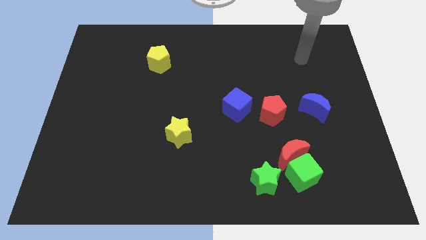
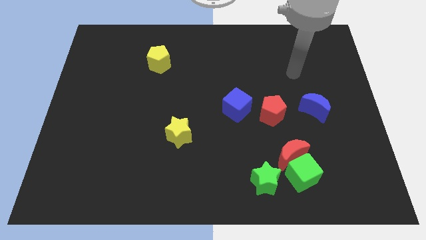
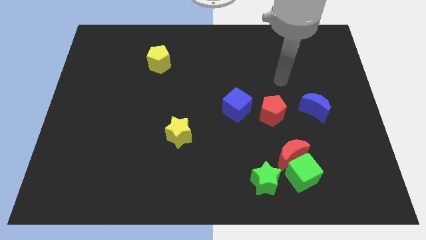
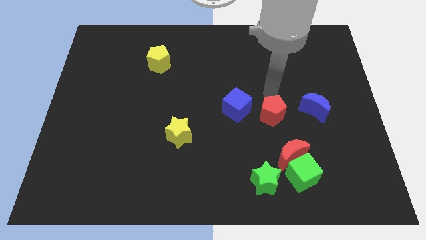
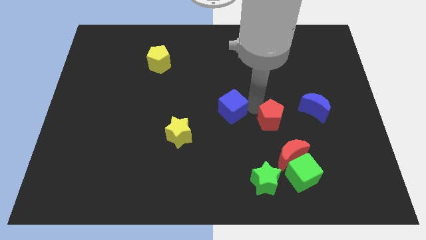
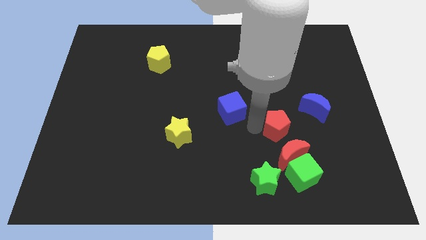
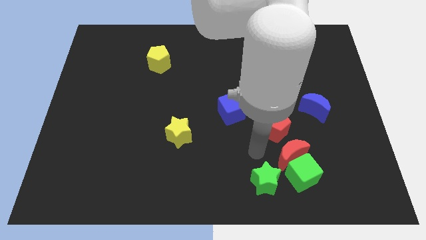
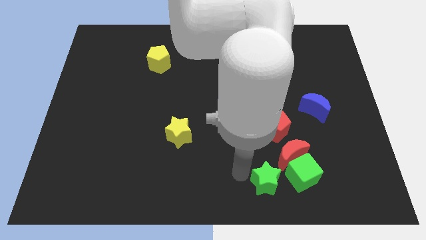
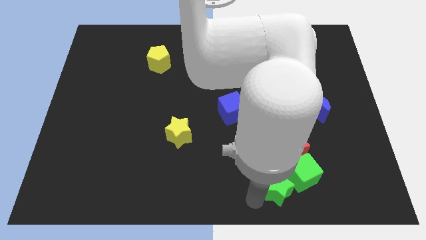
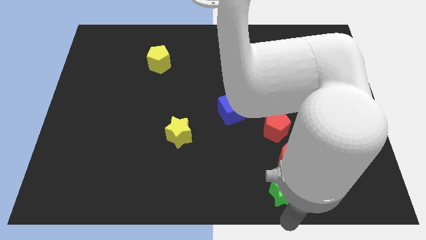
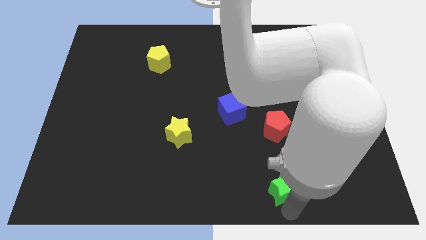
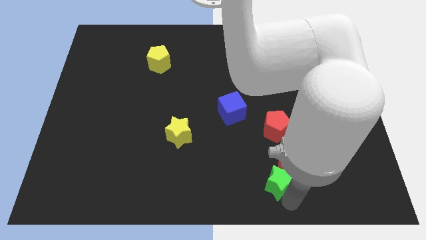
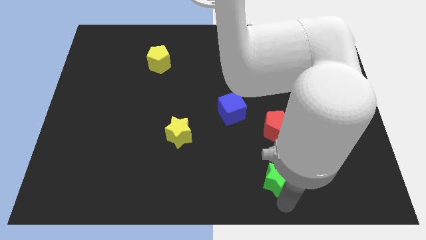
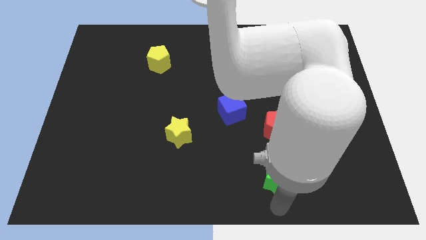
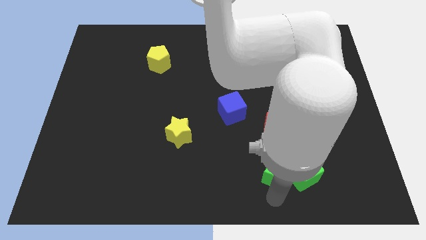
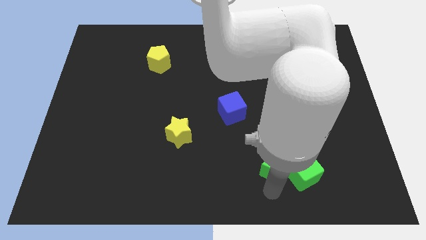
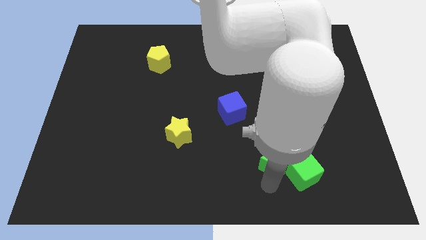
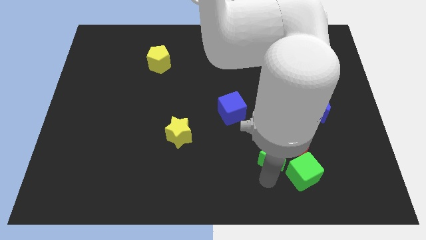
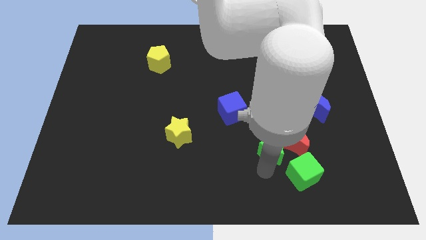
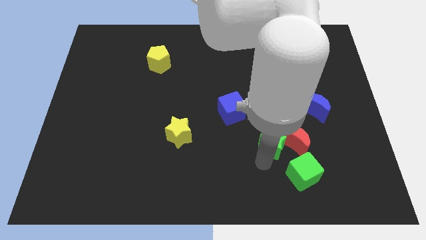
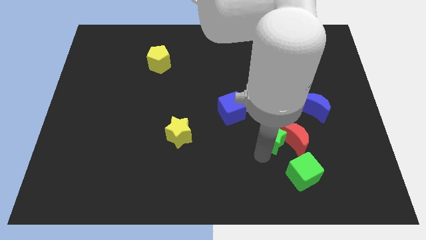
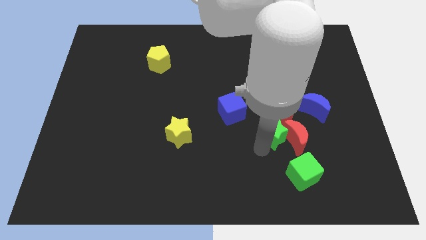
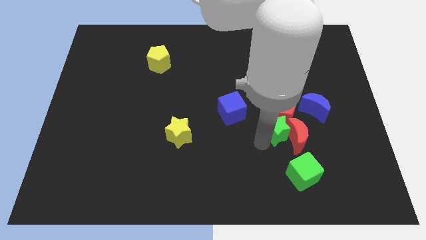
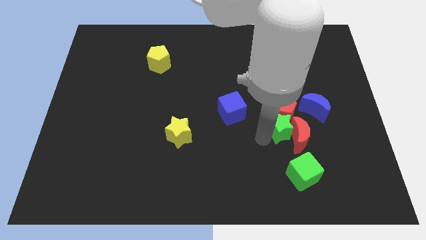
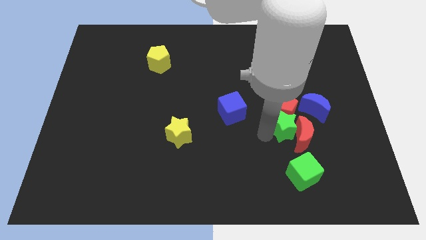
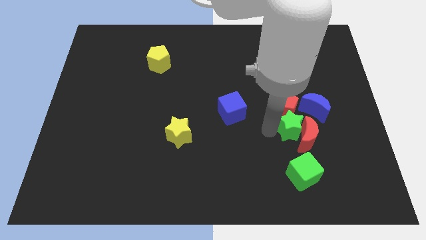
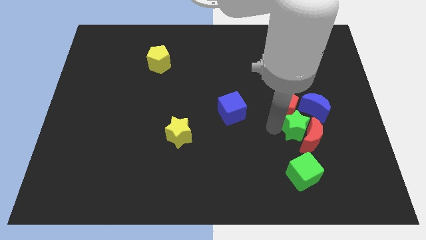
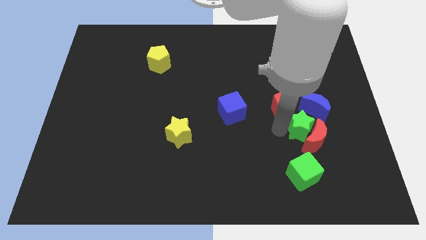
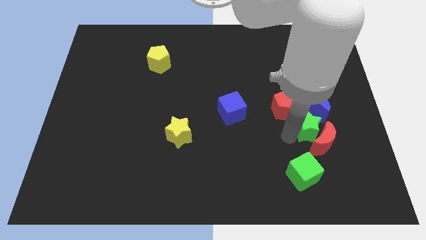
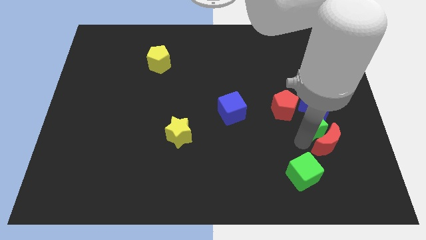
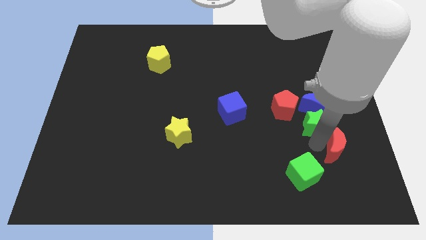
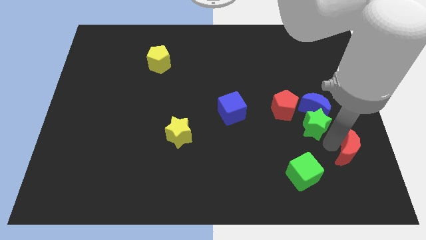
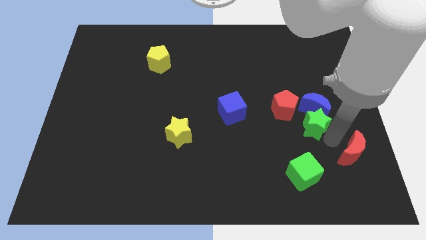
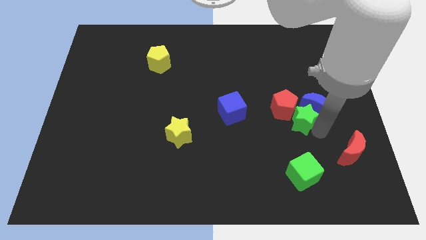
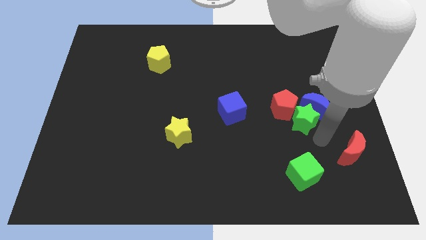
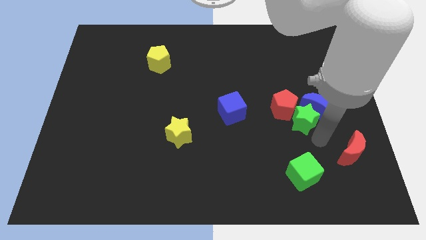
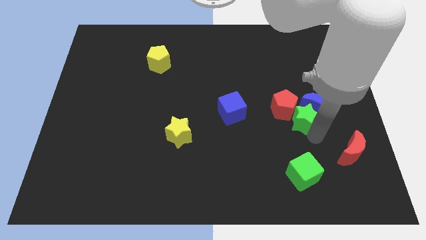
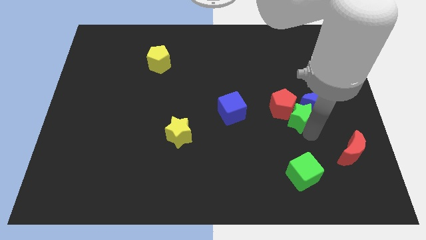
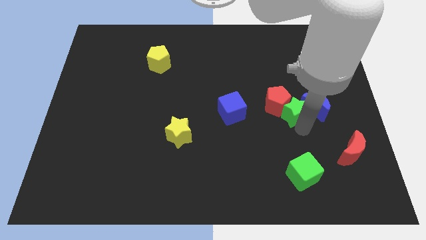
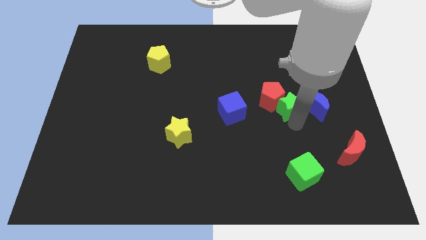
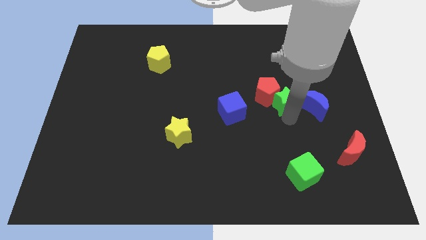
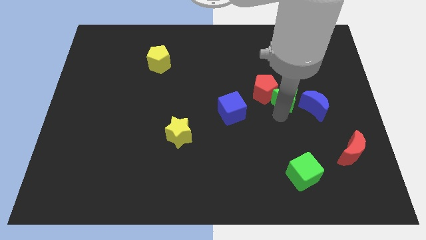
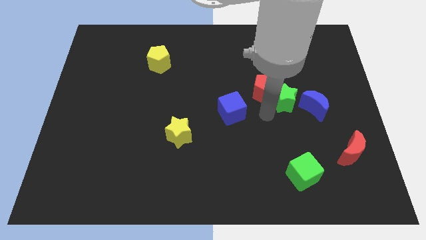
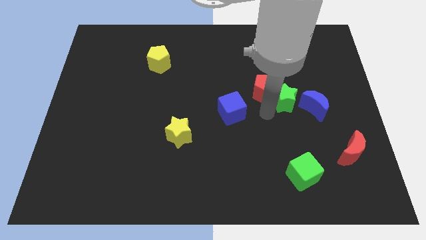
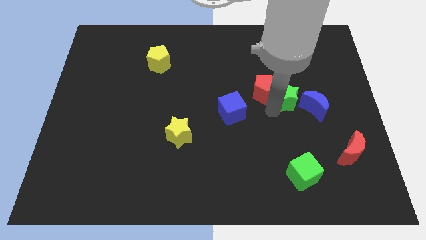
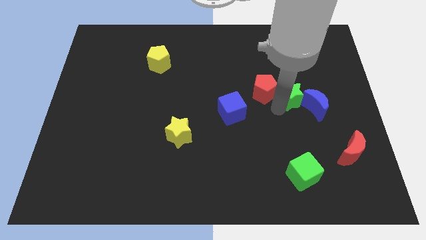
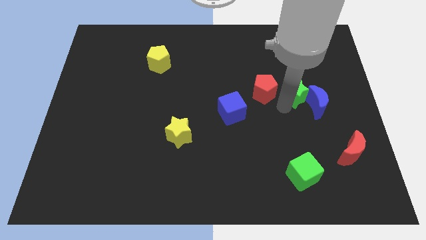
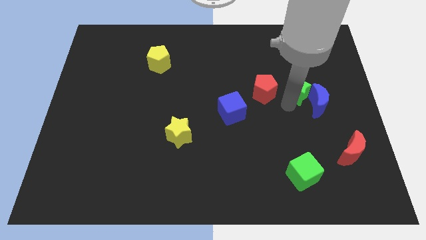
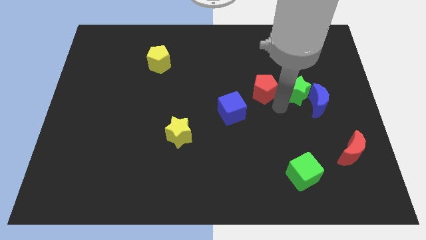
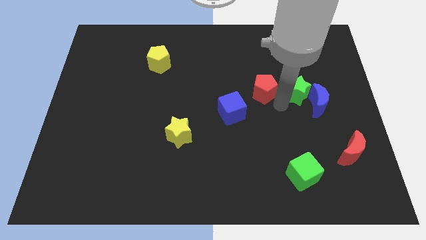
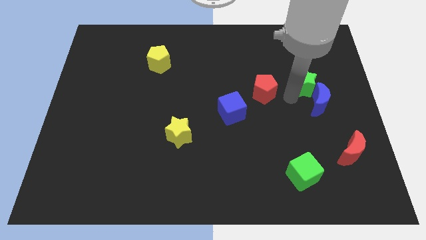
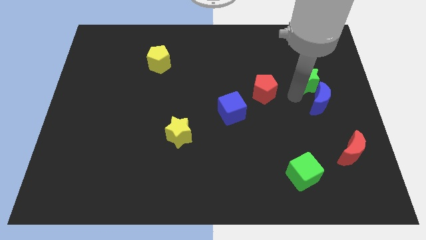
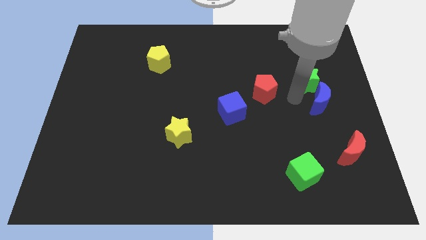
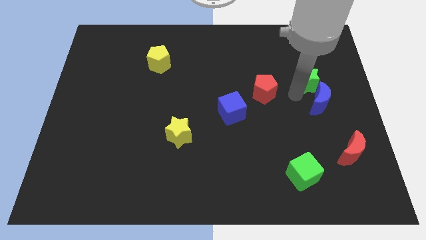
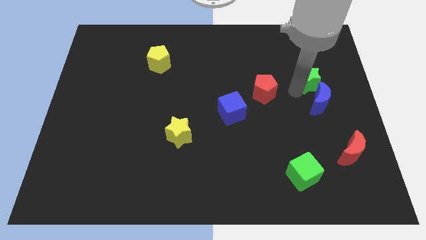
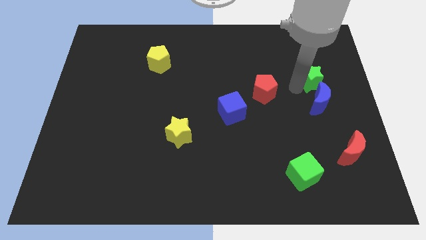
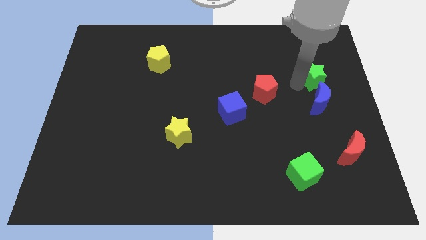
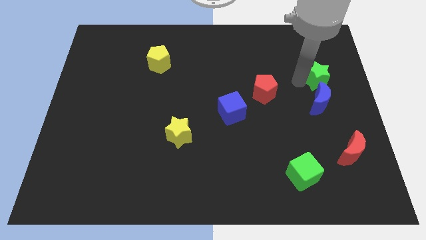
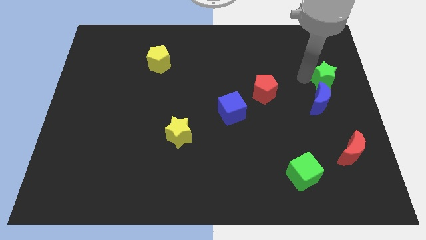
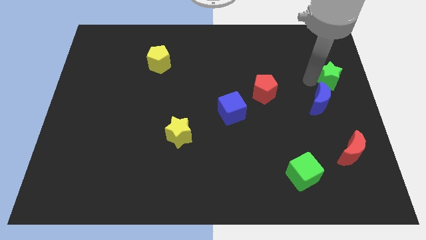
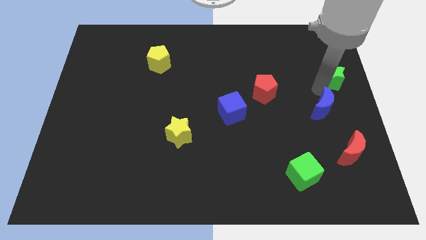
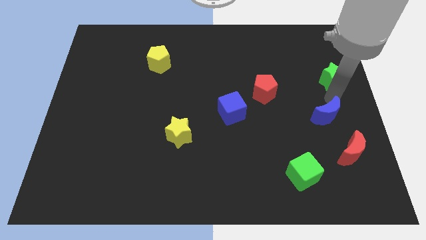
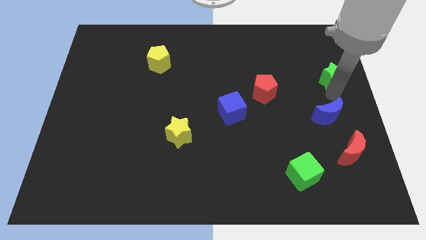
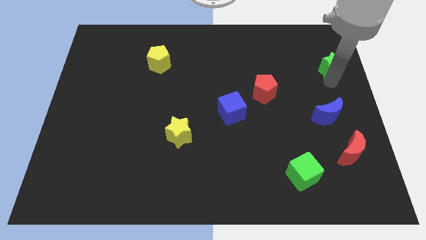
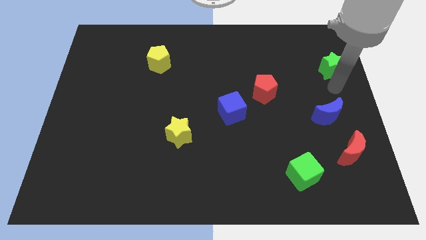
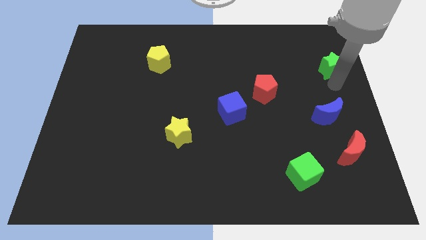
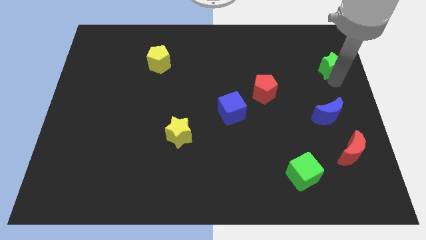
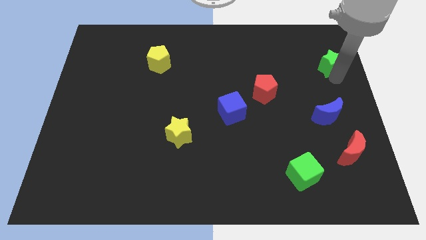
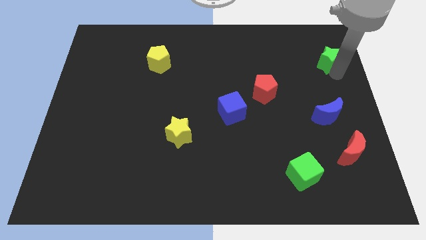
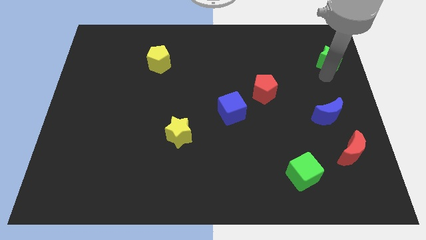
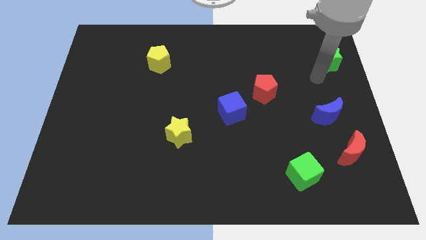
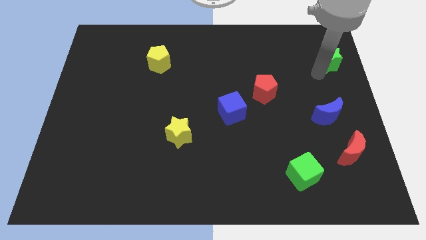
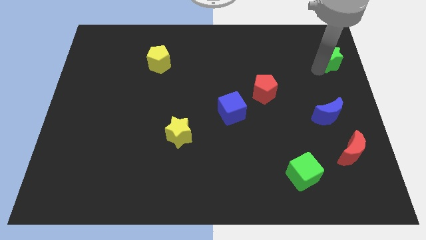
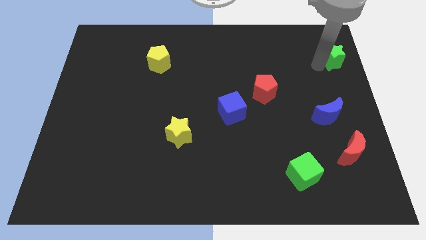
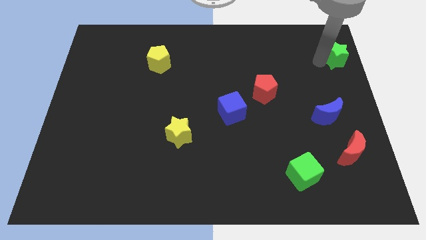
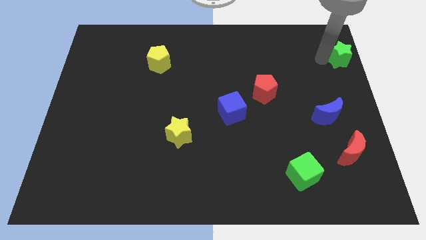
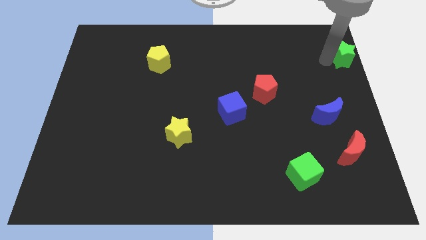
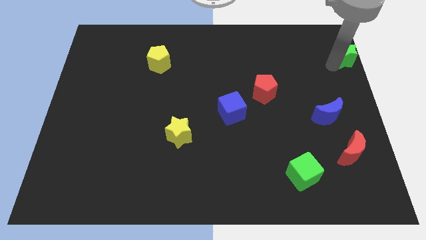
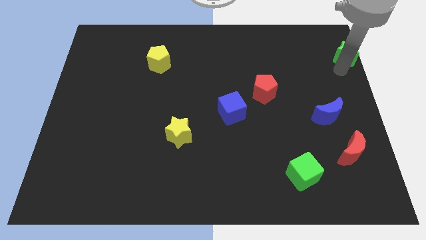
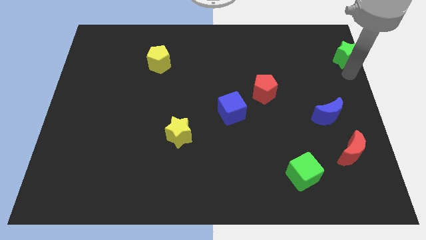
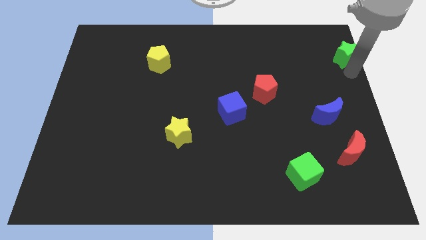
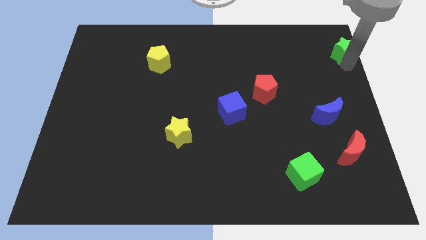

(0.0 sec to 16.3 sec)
push the green star to the top right of the board
